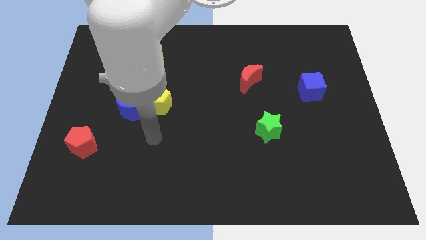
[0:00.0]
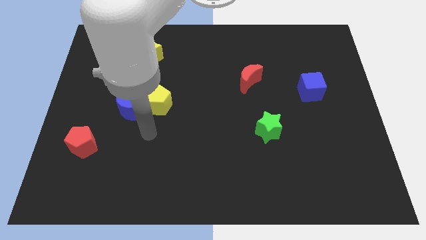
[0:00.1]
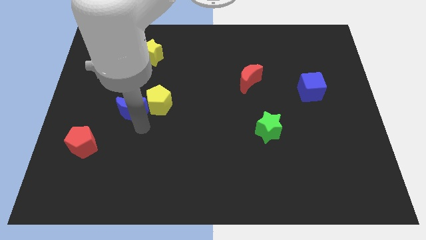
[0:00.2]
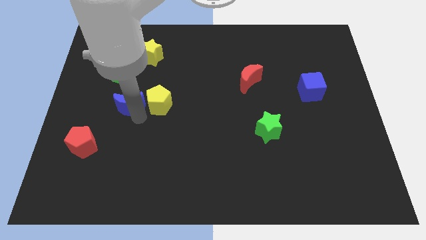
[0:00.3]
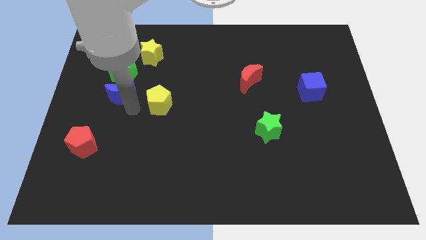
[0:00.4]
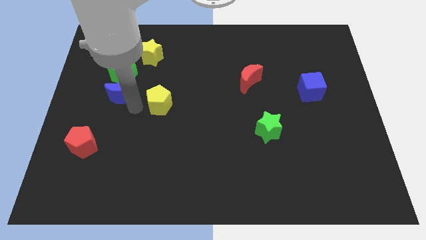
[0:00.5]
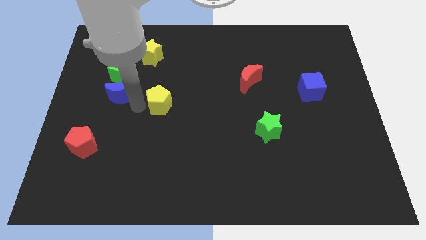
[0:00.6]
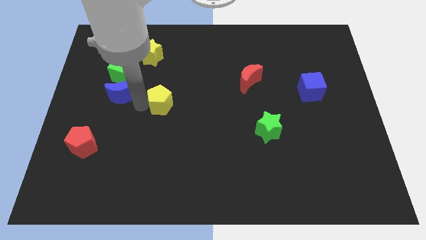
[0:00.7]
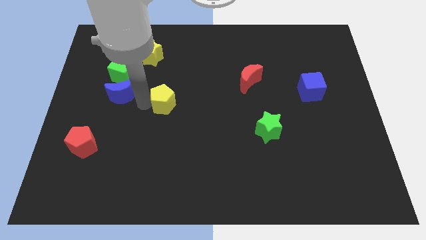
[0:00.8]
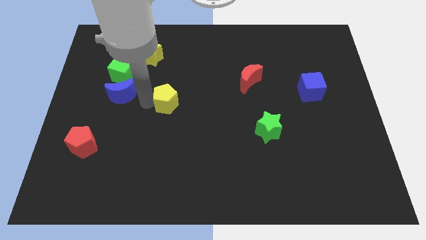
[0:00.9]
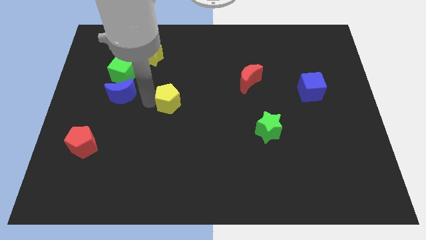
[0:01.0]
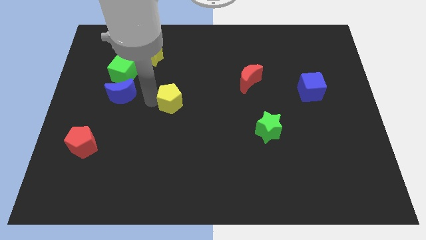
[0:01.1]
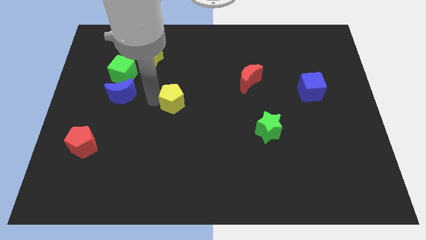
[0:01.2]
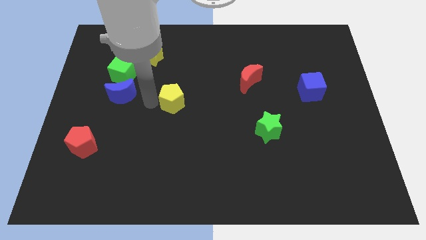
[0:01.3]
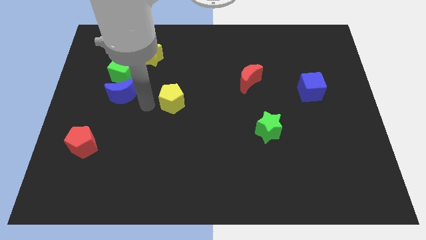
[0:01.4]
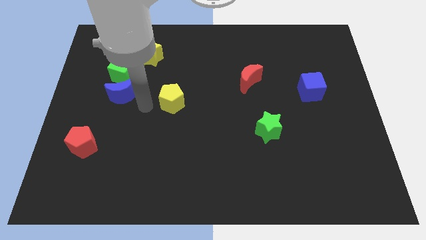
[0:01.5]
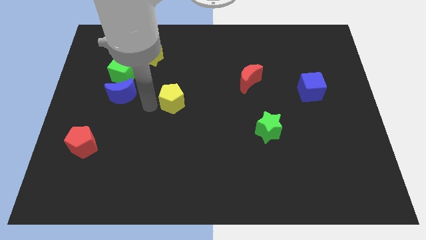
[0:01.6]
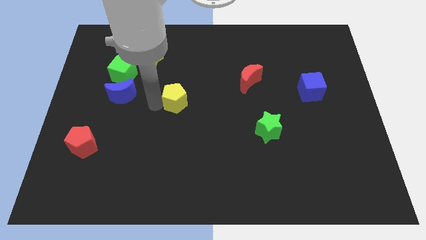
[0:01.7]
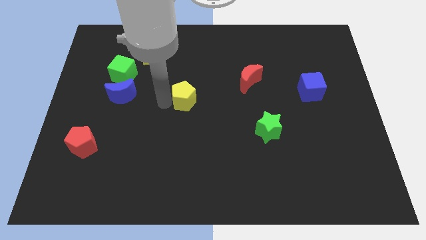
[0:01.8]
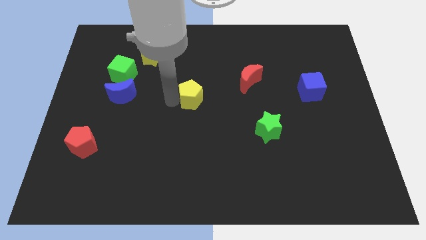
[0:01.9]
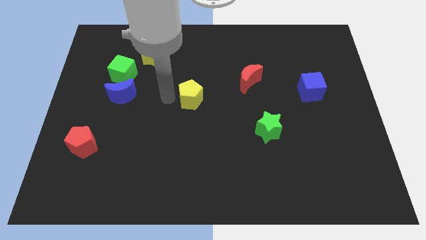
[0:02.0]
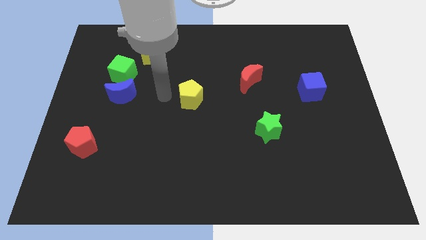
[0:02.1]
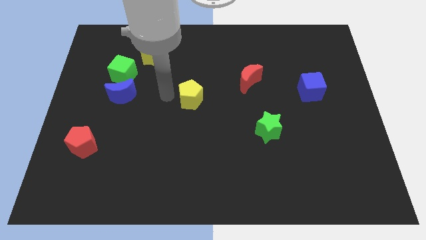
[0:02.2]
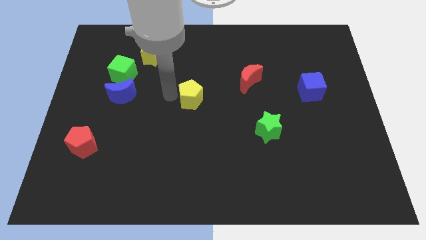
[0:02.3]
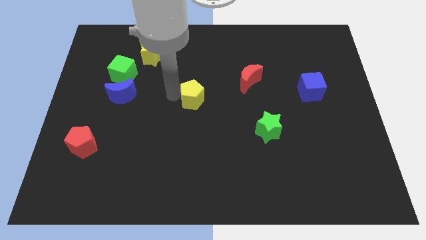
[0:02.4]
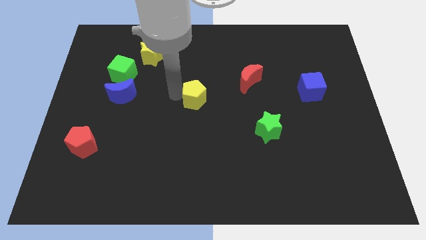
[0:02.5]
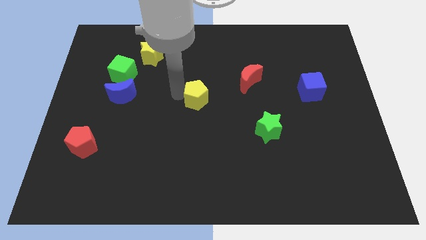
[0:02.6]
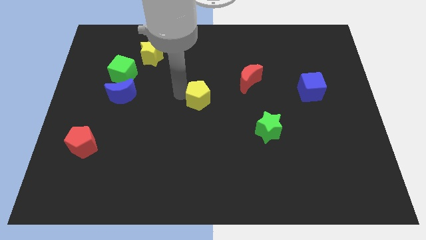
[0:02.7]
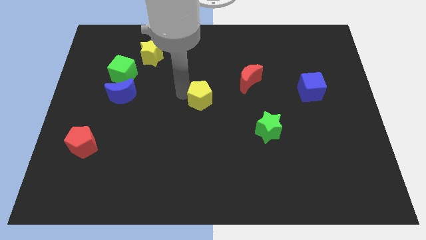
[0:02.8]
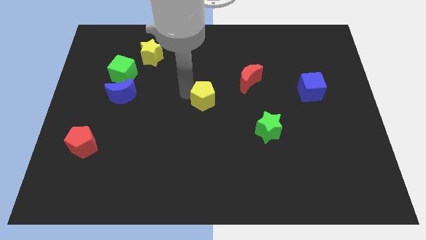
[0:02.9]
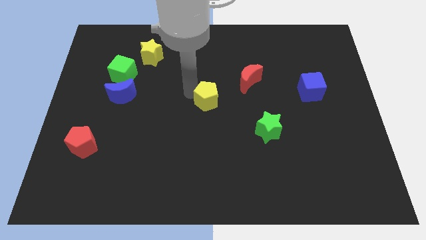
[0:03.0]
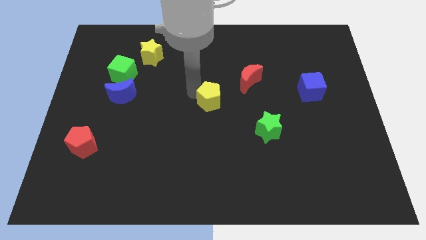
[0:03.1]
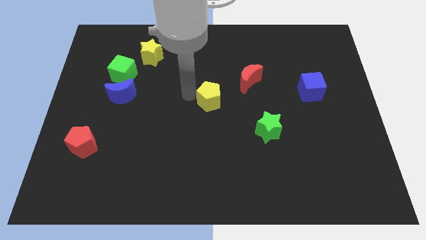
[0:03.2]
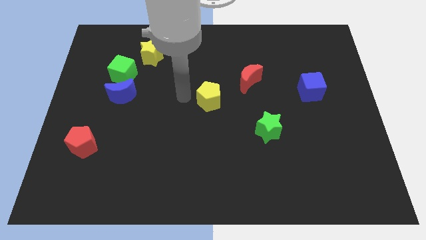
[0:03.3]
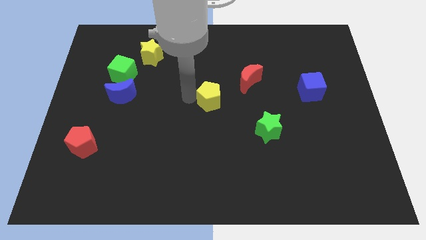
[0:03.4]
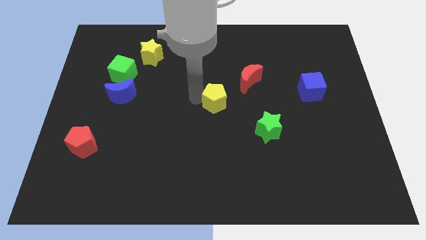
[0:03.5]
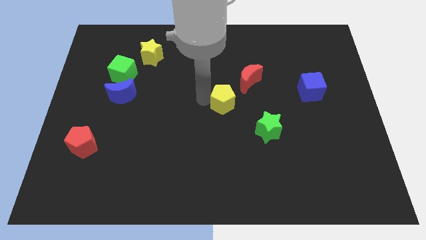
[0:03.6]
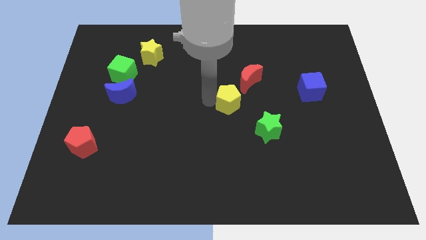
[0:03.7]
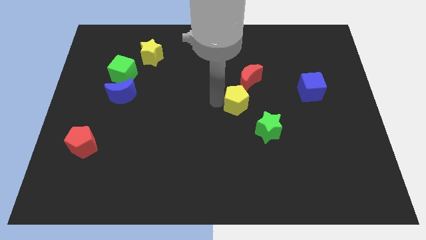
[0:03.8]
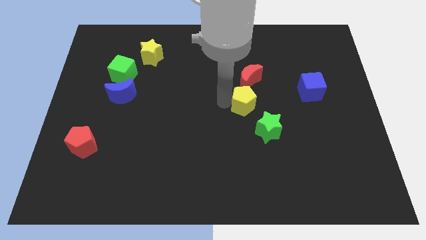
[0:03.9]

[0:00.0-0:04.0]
slide the yellow pentagon right

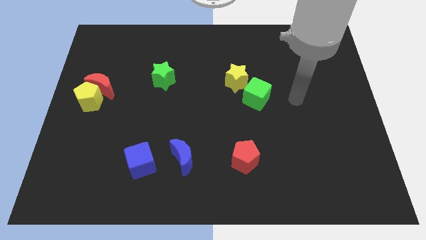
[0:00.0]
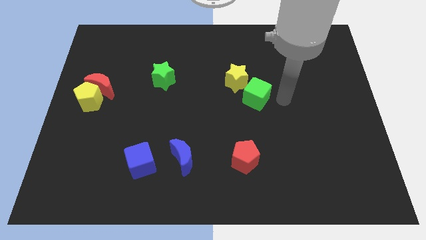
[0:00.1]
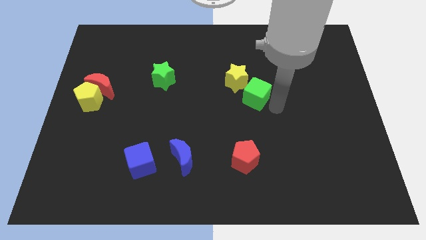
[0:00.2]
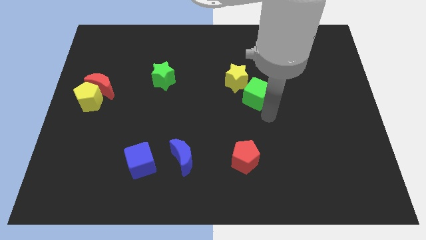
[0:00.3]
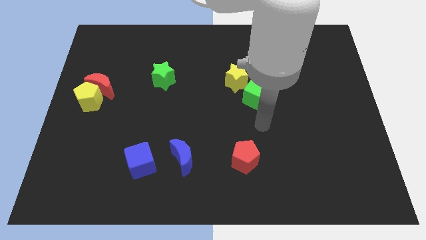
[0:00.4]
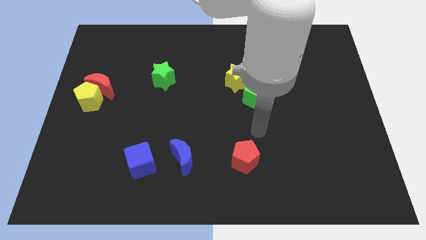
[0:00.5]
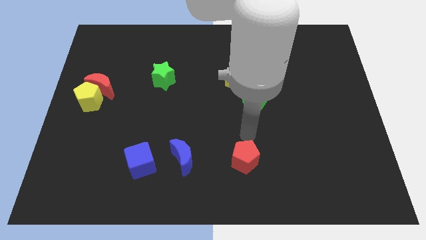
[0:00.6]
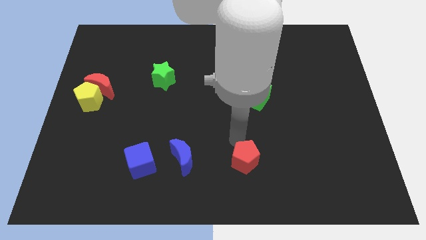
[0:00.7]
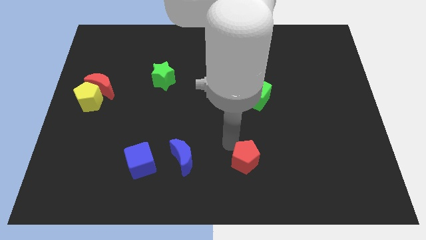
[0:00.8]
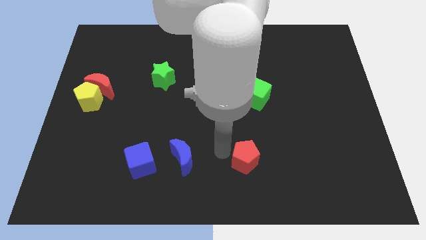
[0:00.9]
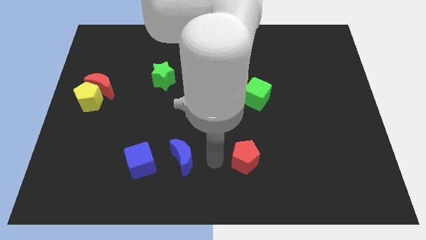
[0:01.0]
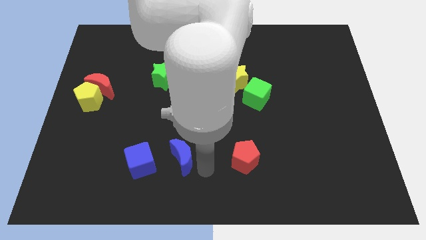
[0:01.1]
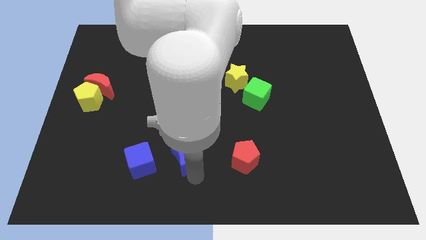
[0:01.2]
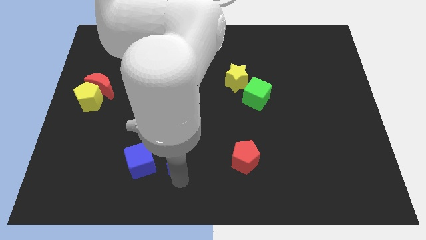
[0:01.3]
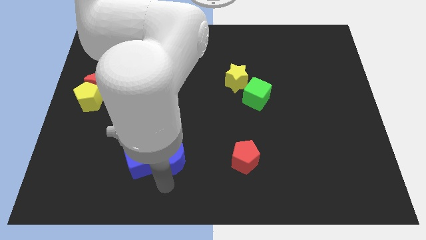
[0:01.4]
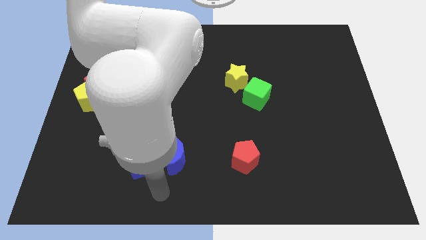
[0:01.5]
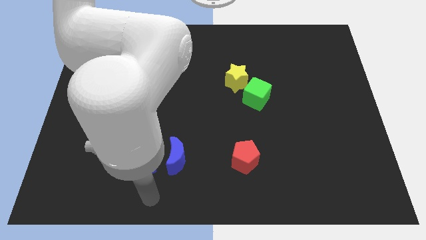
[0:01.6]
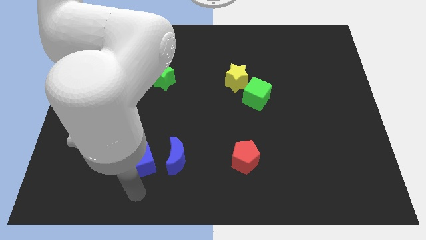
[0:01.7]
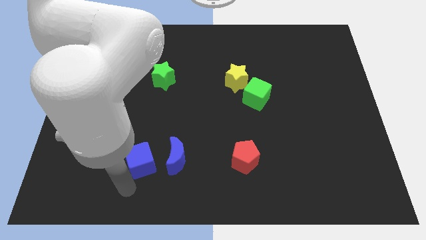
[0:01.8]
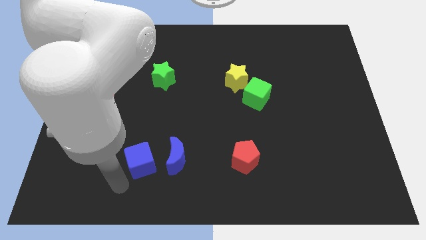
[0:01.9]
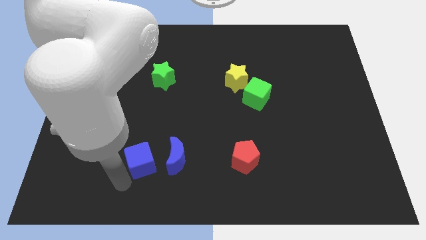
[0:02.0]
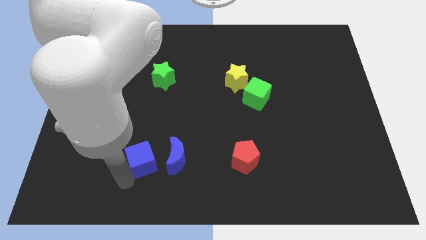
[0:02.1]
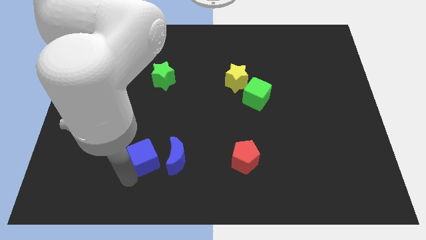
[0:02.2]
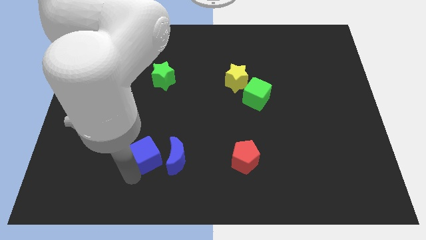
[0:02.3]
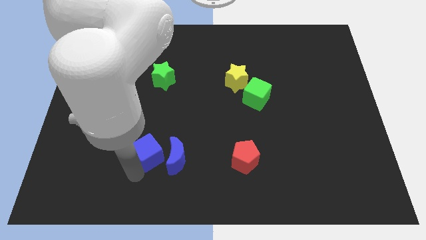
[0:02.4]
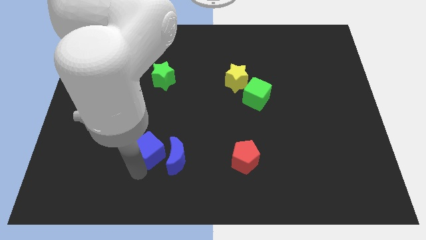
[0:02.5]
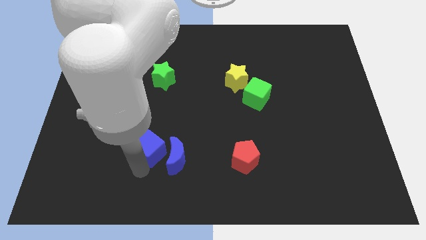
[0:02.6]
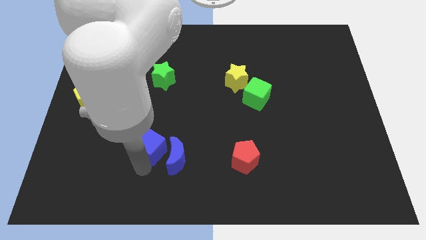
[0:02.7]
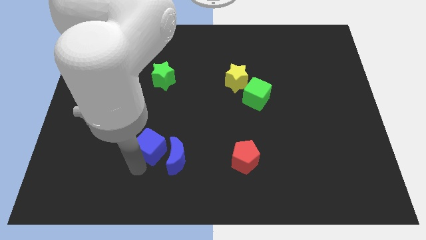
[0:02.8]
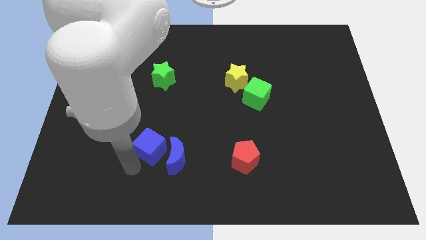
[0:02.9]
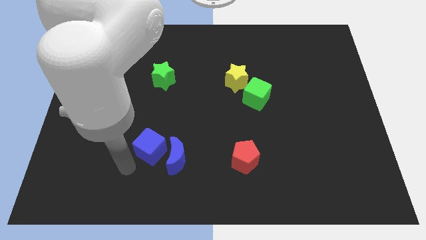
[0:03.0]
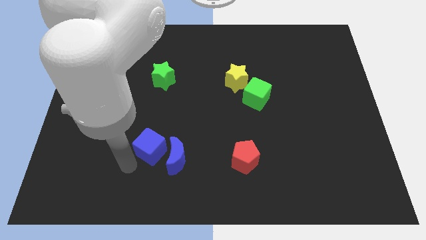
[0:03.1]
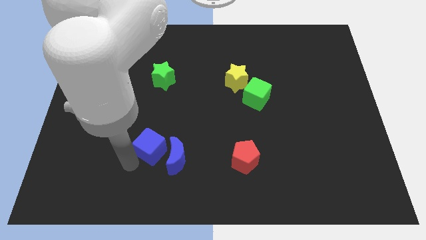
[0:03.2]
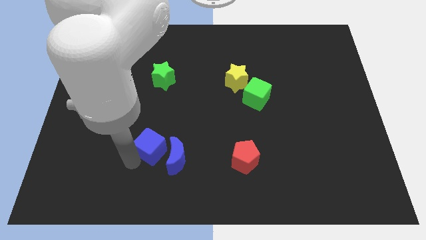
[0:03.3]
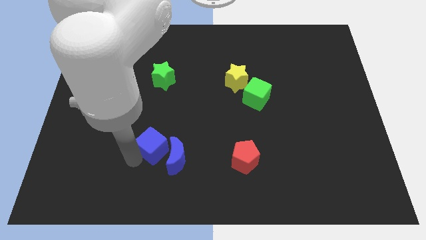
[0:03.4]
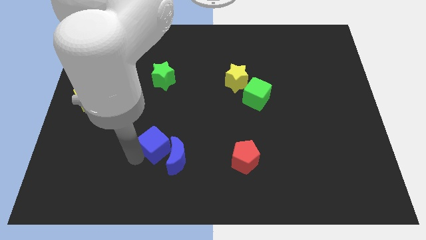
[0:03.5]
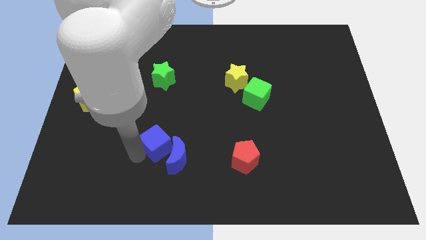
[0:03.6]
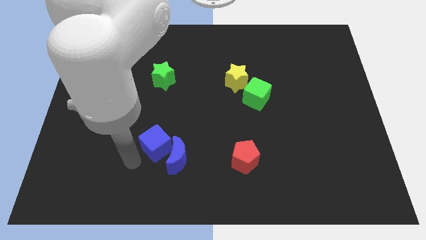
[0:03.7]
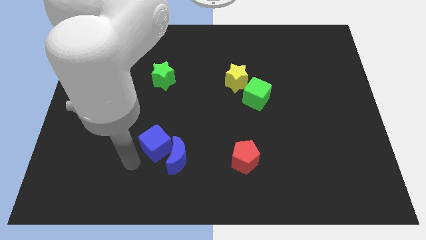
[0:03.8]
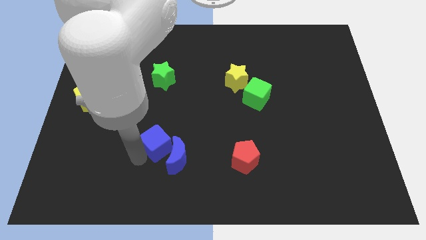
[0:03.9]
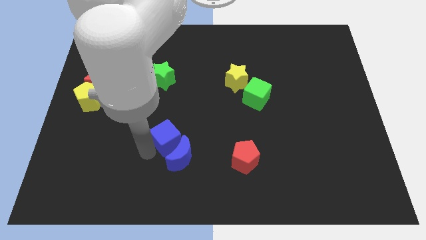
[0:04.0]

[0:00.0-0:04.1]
move the blue cube a bit upwards and to the right

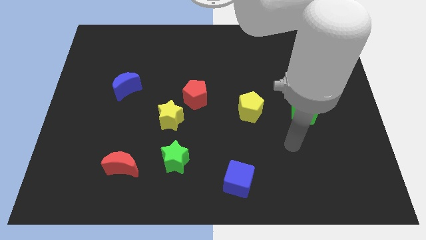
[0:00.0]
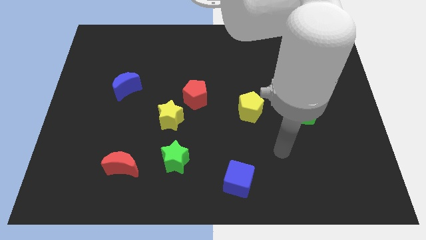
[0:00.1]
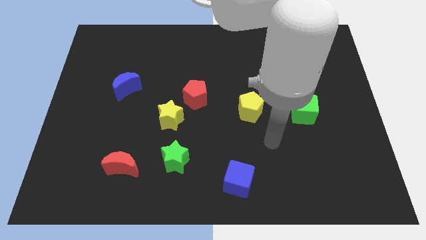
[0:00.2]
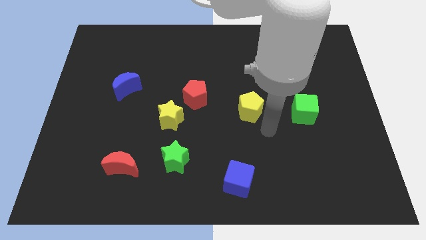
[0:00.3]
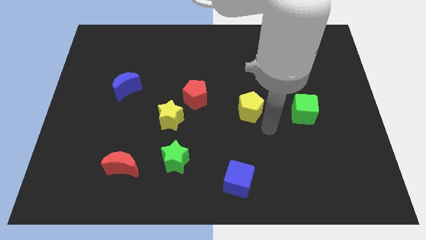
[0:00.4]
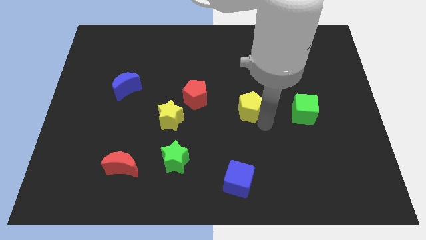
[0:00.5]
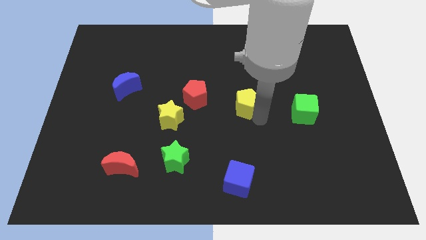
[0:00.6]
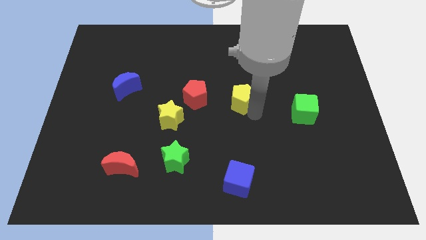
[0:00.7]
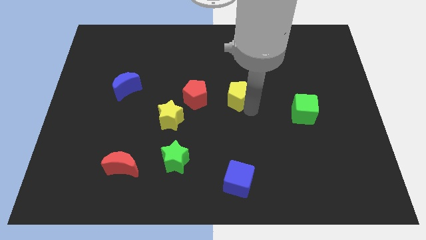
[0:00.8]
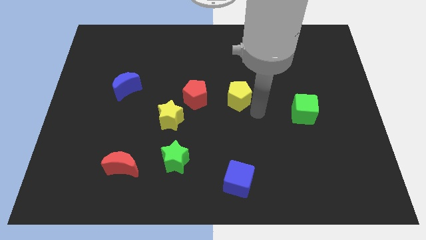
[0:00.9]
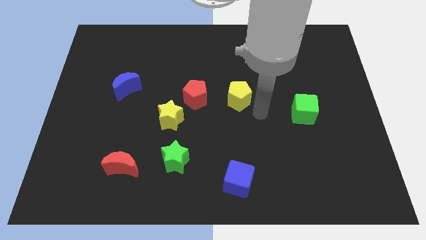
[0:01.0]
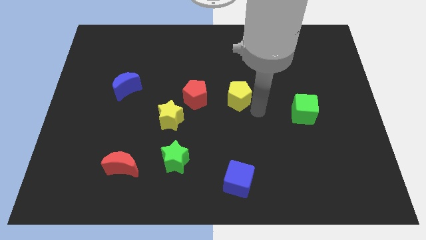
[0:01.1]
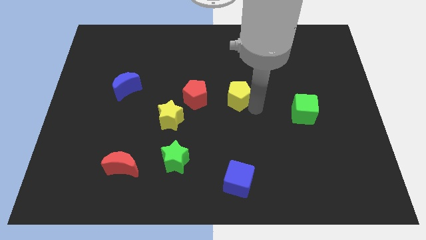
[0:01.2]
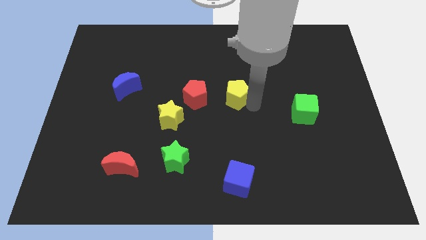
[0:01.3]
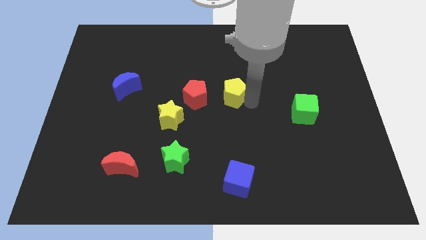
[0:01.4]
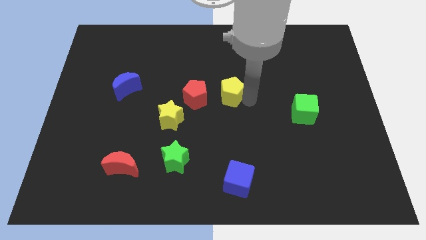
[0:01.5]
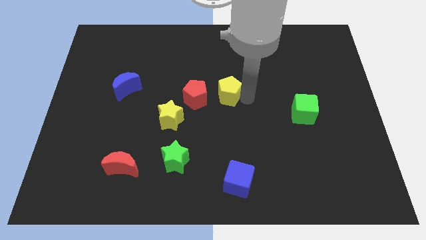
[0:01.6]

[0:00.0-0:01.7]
move the yellow pentagon up and left slightly
